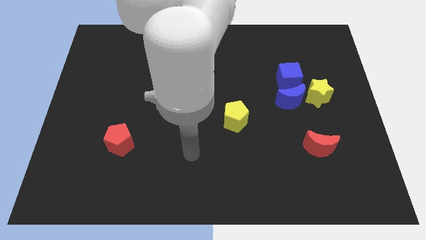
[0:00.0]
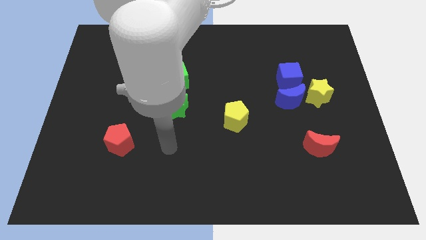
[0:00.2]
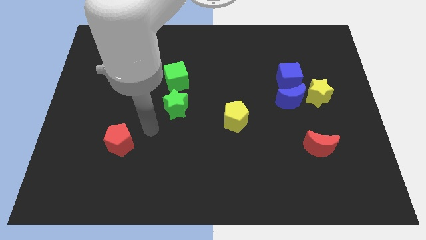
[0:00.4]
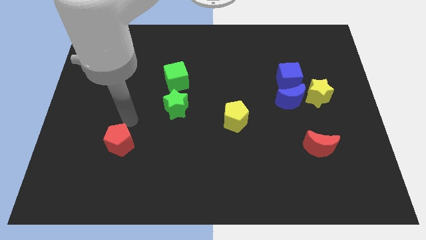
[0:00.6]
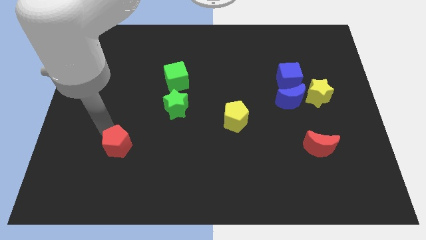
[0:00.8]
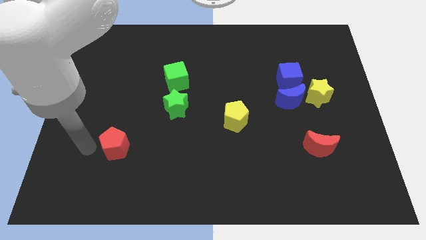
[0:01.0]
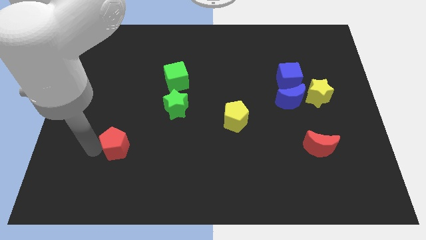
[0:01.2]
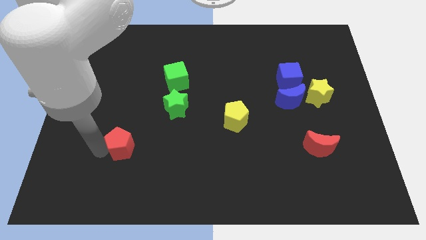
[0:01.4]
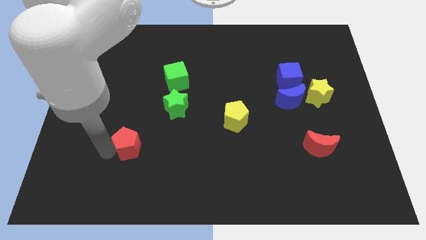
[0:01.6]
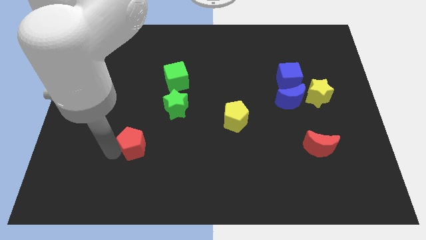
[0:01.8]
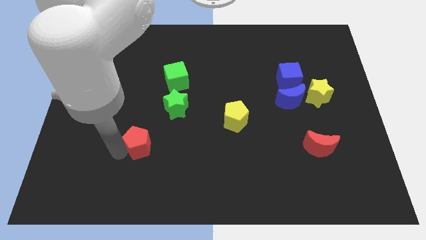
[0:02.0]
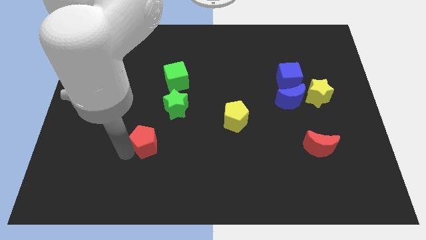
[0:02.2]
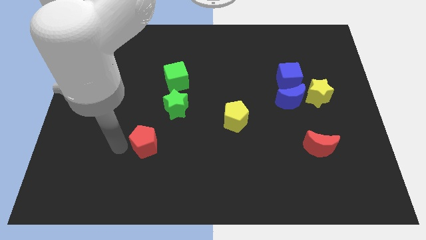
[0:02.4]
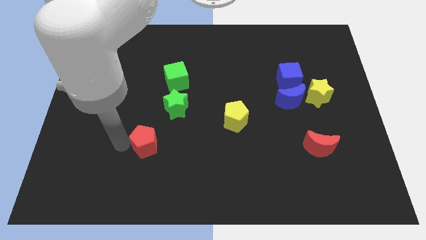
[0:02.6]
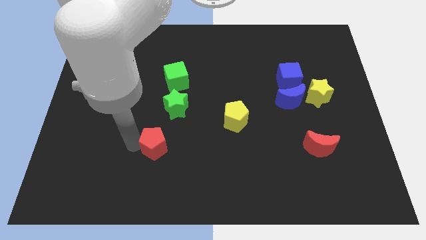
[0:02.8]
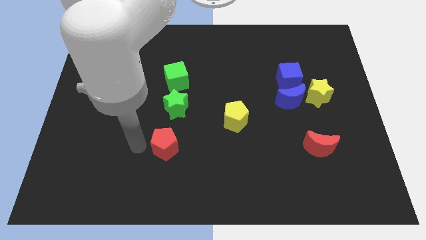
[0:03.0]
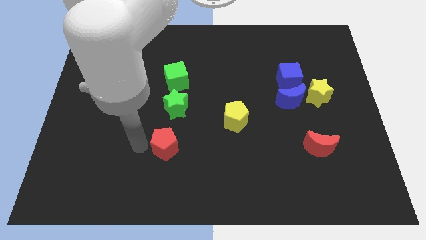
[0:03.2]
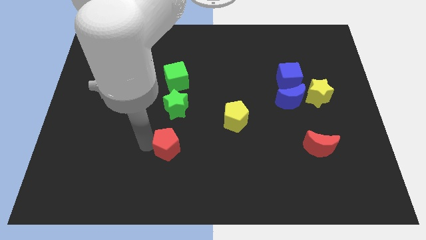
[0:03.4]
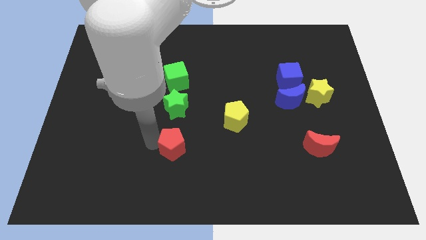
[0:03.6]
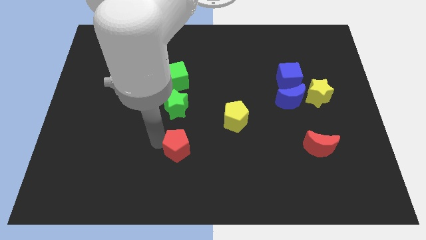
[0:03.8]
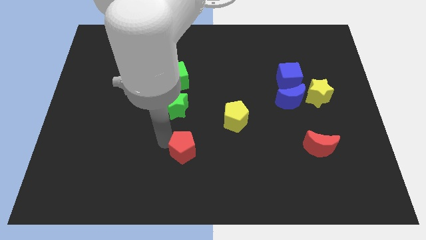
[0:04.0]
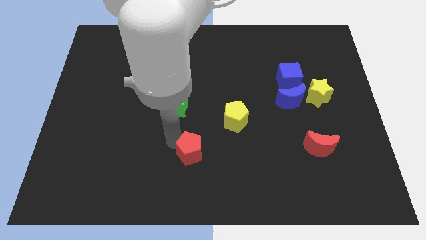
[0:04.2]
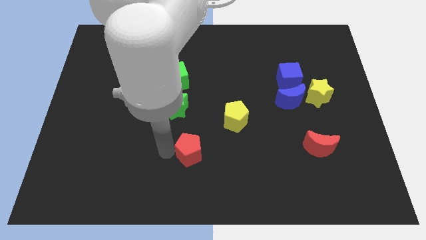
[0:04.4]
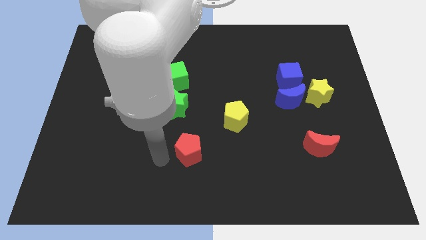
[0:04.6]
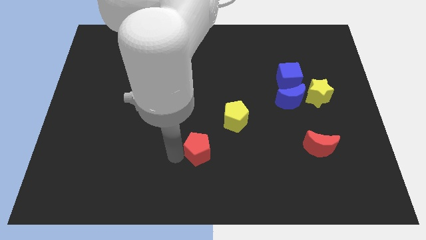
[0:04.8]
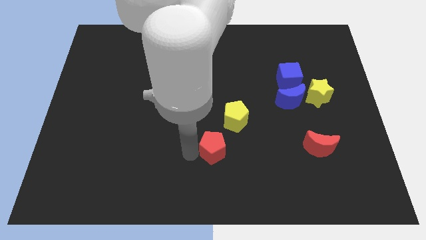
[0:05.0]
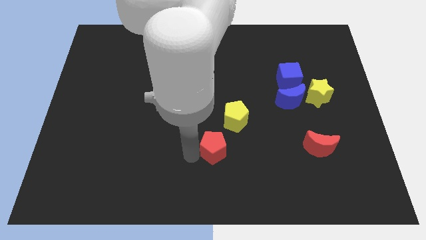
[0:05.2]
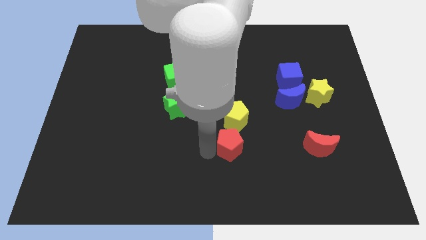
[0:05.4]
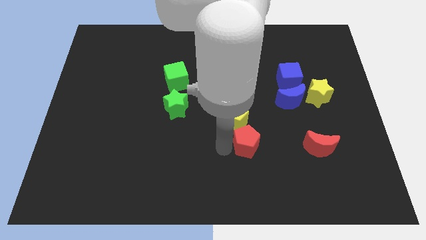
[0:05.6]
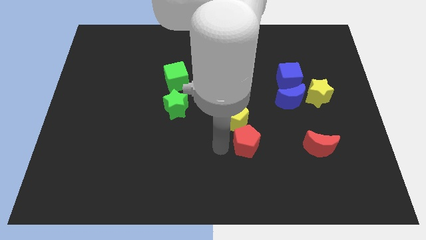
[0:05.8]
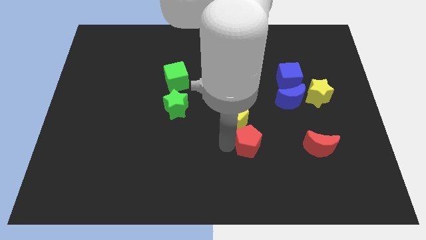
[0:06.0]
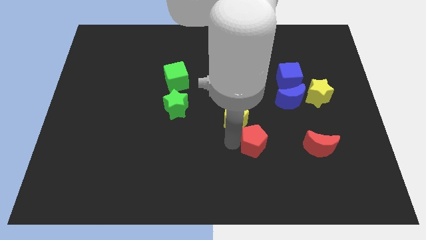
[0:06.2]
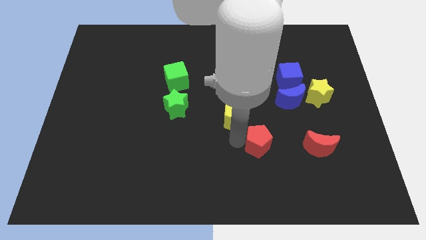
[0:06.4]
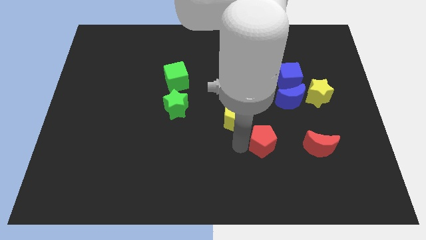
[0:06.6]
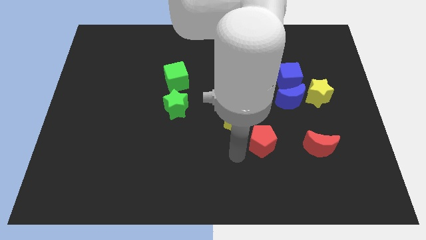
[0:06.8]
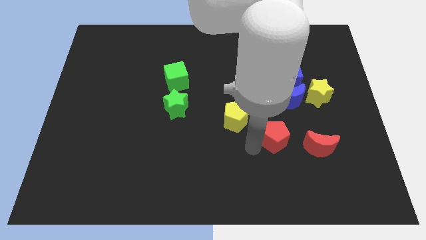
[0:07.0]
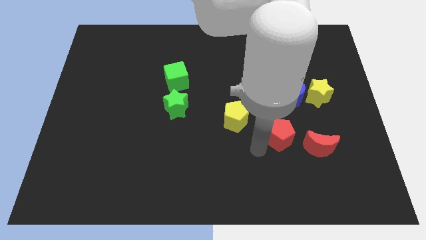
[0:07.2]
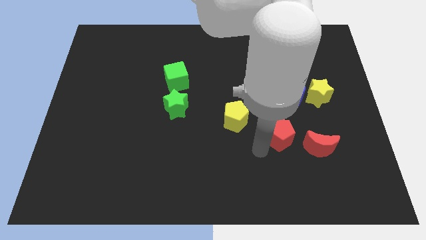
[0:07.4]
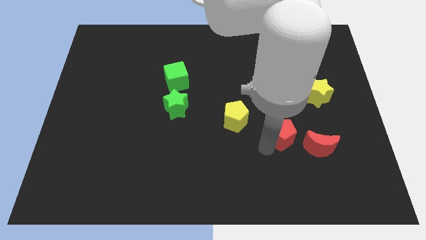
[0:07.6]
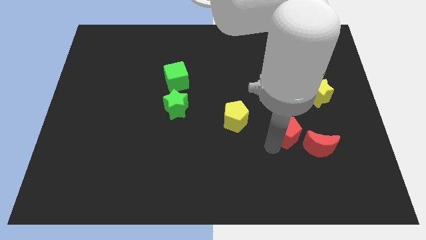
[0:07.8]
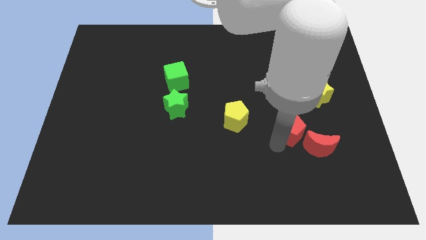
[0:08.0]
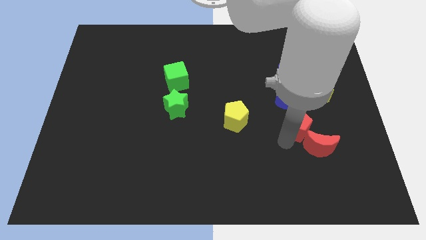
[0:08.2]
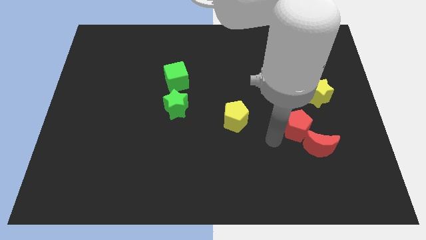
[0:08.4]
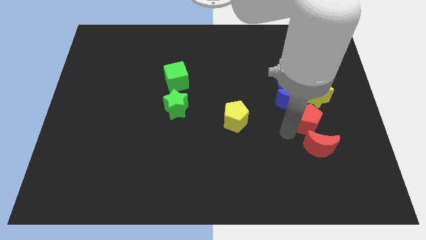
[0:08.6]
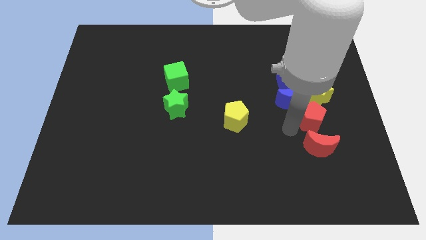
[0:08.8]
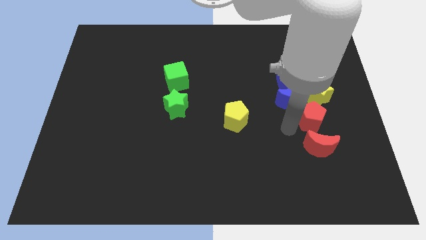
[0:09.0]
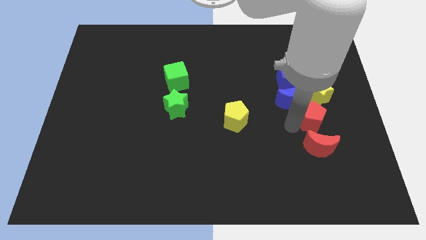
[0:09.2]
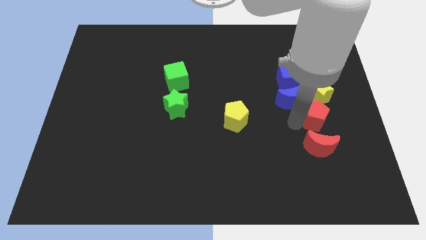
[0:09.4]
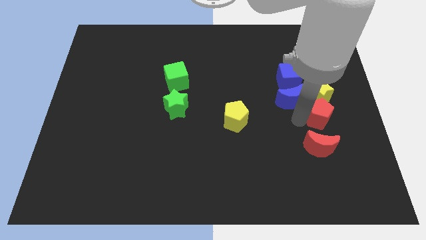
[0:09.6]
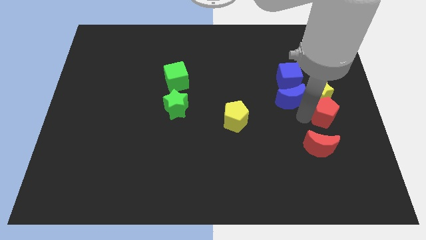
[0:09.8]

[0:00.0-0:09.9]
put the red pentagon to the center right

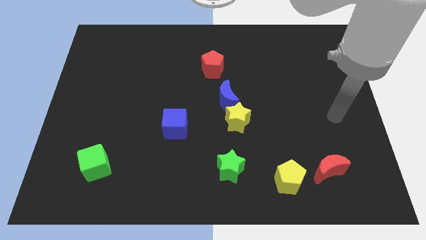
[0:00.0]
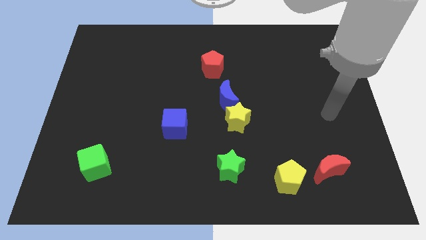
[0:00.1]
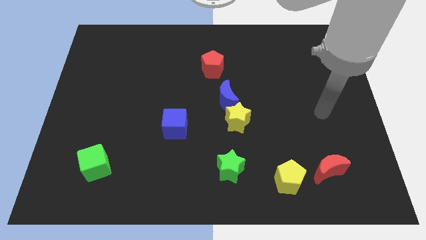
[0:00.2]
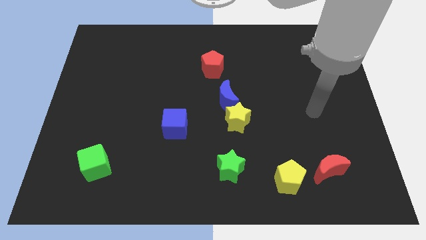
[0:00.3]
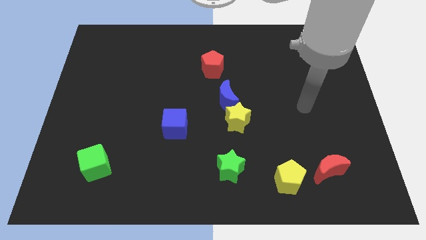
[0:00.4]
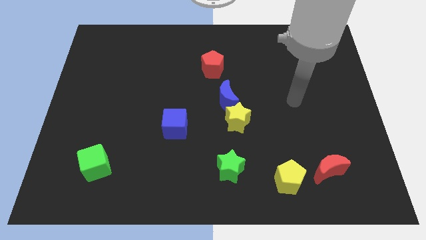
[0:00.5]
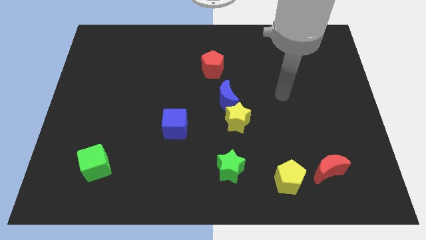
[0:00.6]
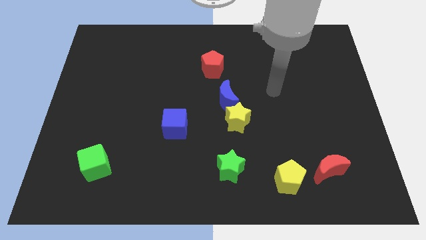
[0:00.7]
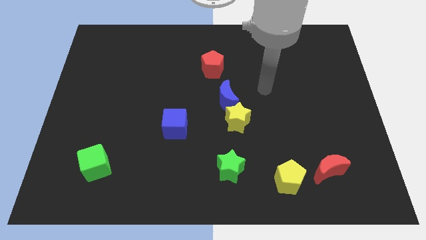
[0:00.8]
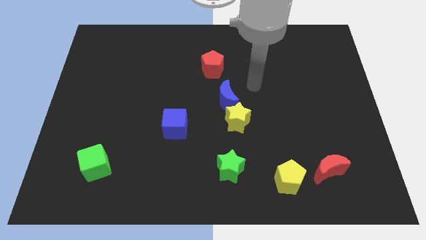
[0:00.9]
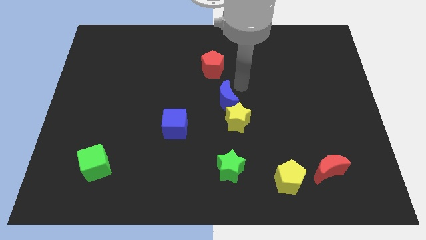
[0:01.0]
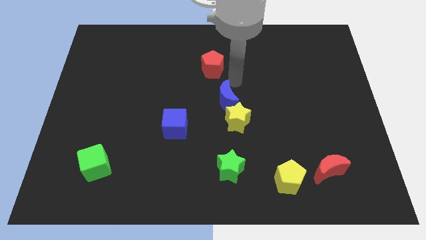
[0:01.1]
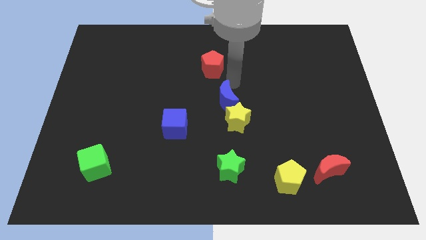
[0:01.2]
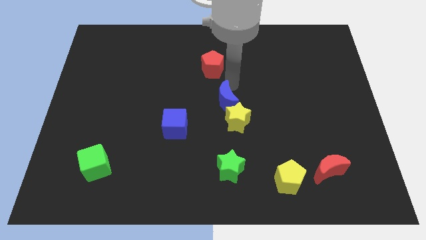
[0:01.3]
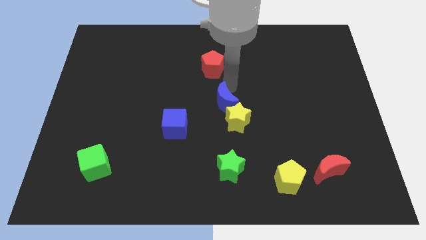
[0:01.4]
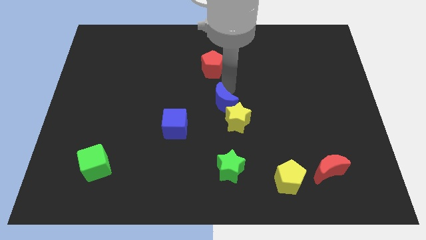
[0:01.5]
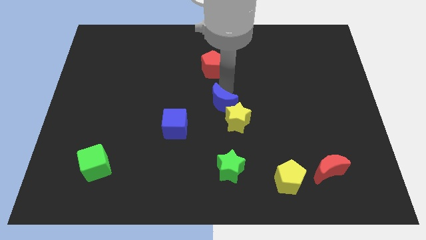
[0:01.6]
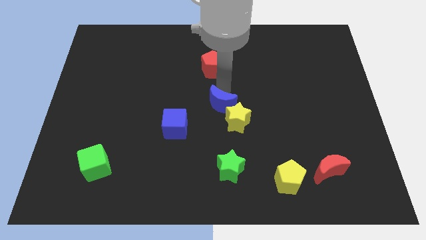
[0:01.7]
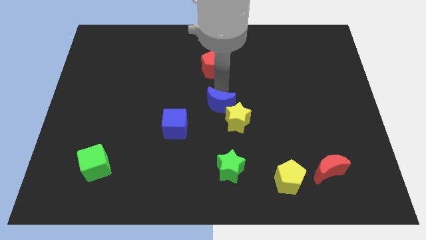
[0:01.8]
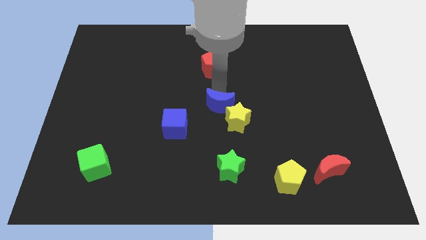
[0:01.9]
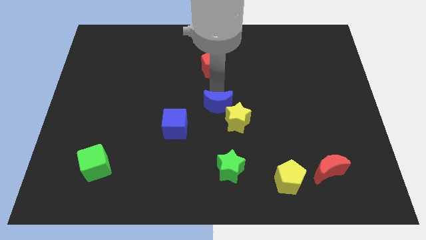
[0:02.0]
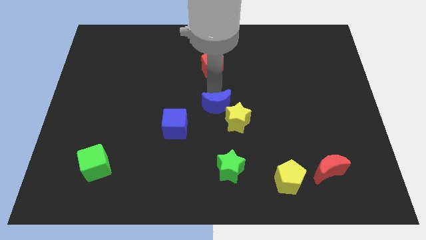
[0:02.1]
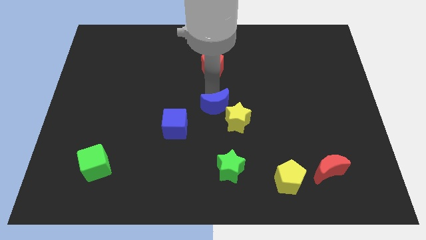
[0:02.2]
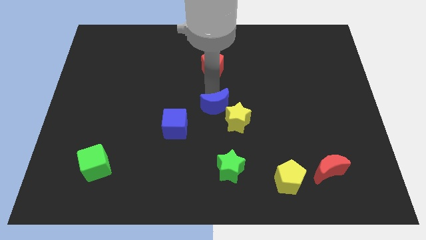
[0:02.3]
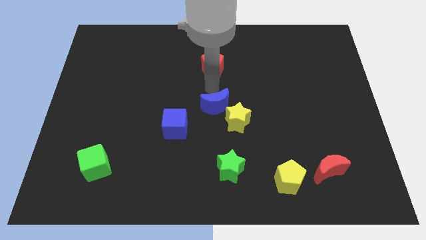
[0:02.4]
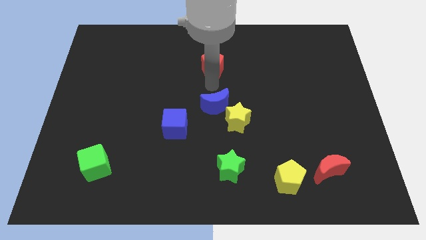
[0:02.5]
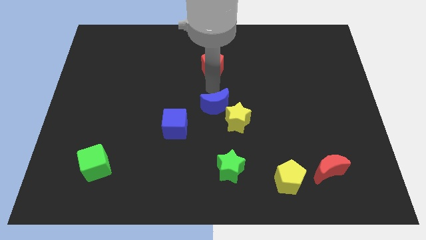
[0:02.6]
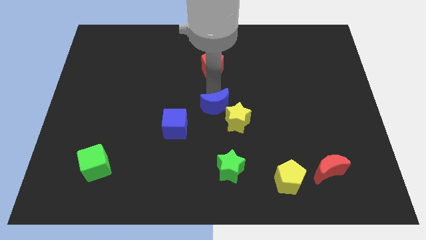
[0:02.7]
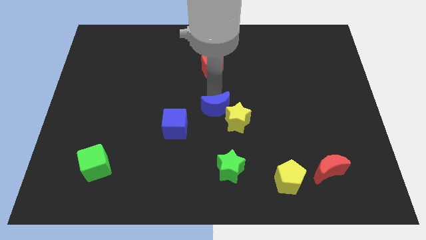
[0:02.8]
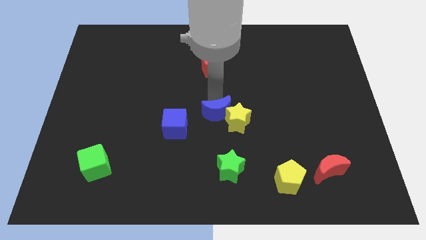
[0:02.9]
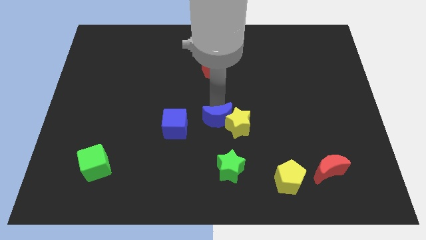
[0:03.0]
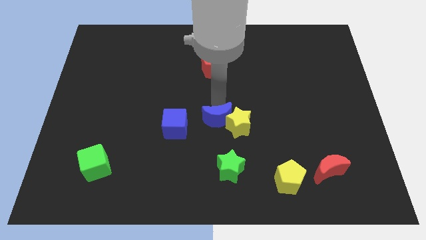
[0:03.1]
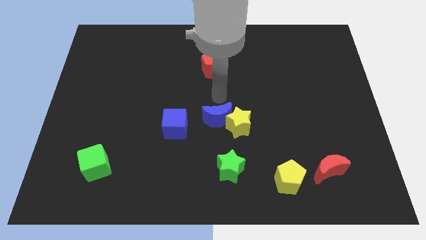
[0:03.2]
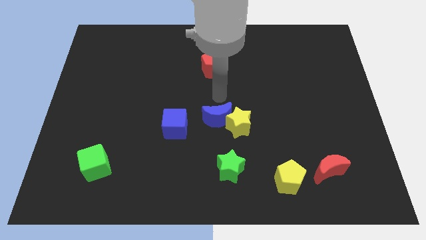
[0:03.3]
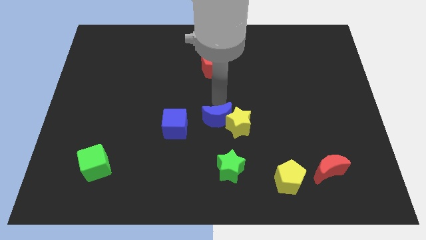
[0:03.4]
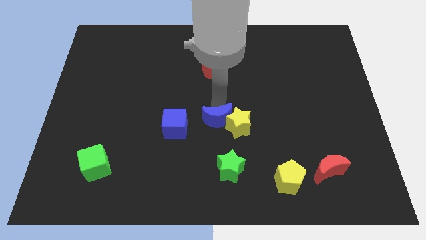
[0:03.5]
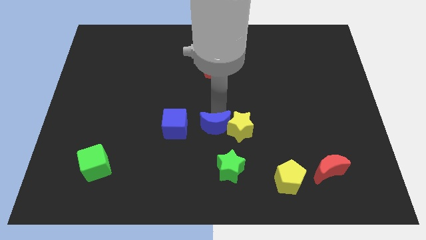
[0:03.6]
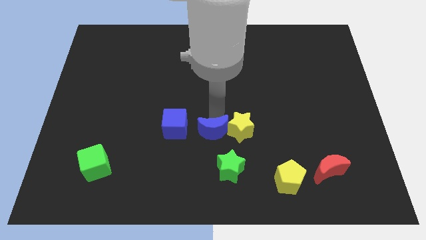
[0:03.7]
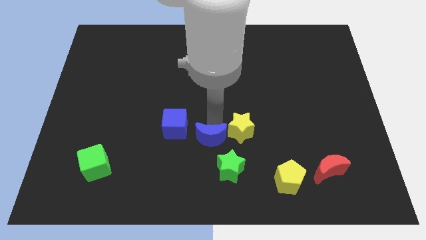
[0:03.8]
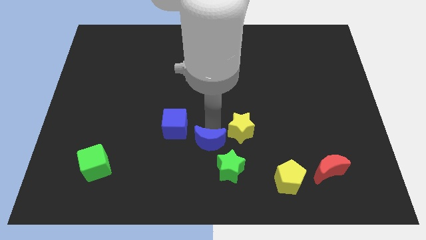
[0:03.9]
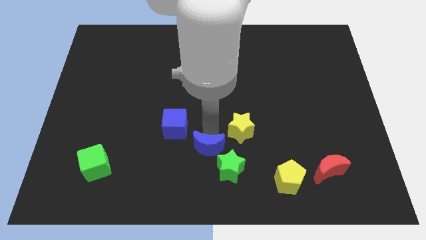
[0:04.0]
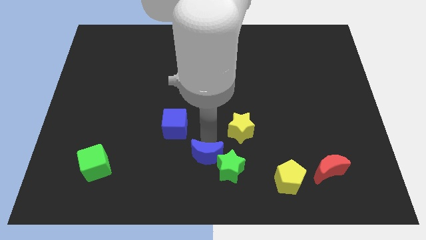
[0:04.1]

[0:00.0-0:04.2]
slide the blue moon to the bottom side
